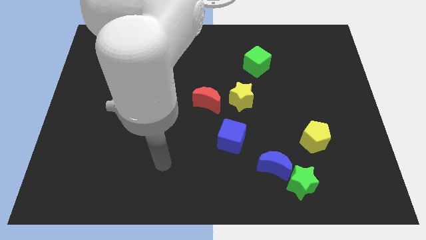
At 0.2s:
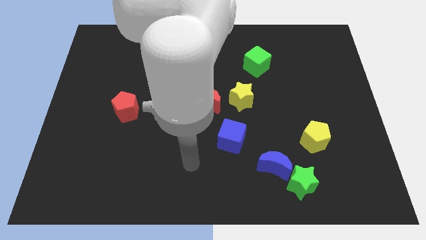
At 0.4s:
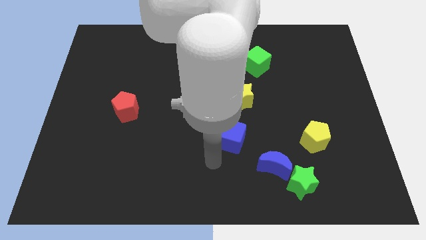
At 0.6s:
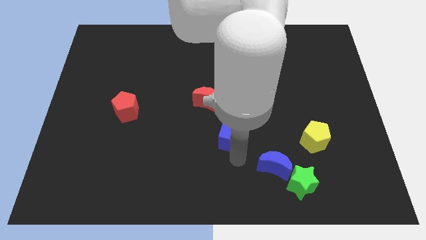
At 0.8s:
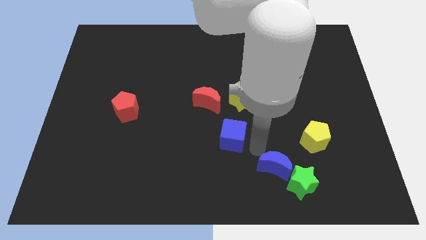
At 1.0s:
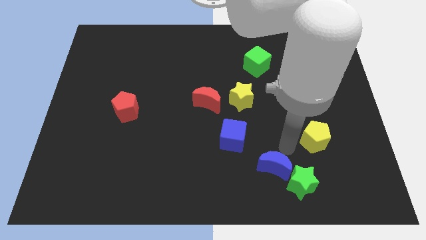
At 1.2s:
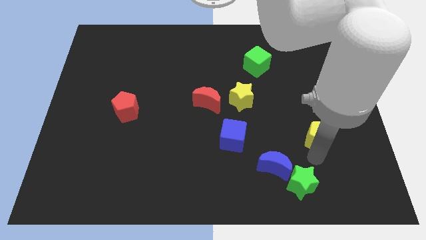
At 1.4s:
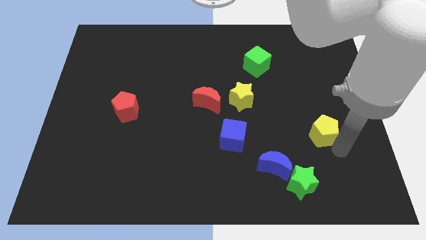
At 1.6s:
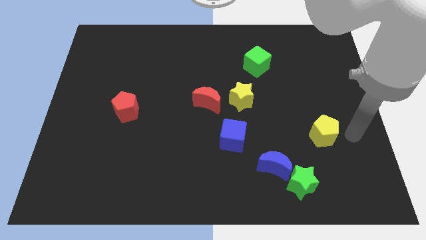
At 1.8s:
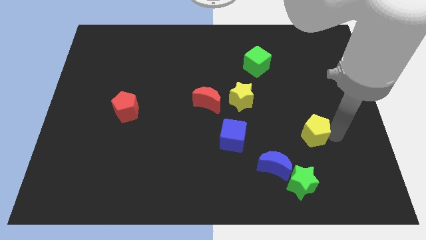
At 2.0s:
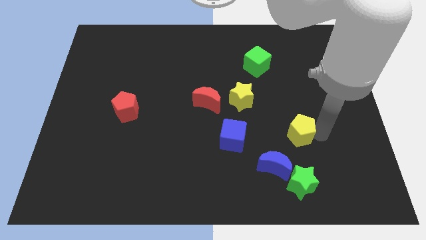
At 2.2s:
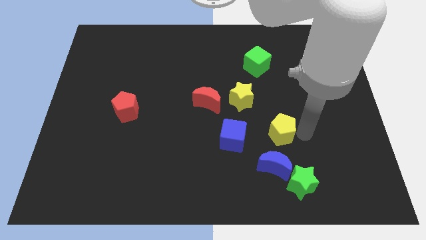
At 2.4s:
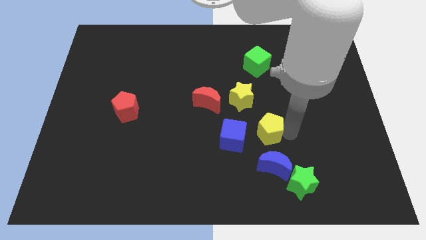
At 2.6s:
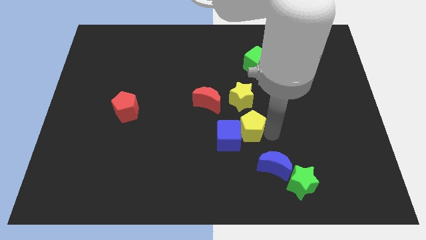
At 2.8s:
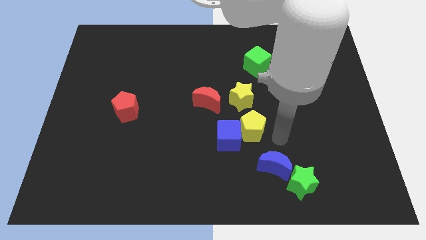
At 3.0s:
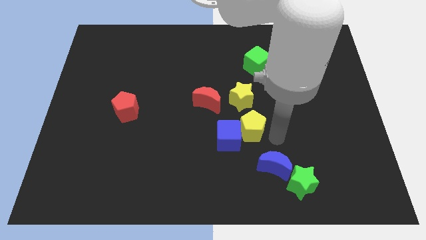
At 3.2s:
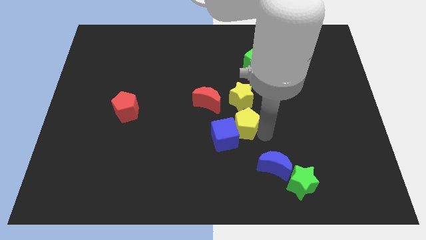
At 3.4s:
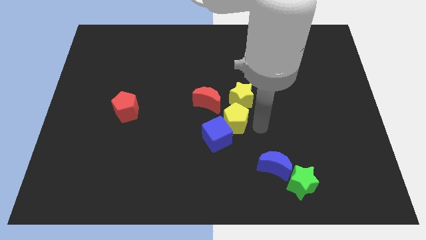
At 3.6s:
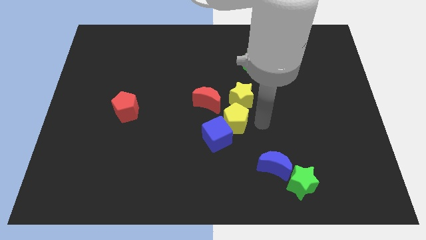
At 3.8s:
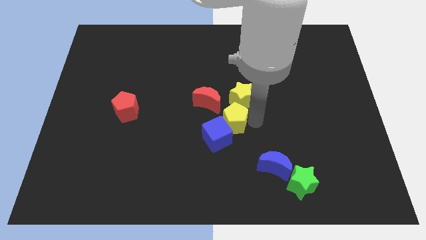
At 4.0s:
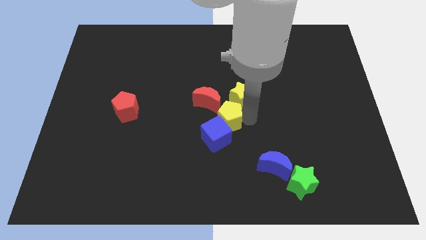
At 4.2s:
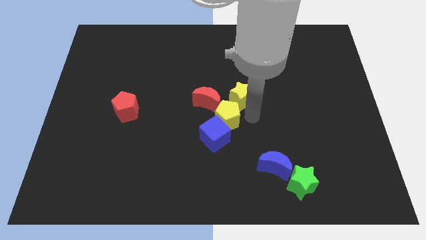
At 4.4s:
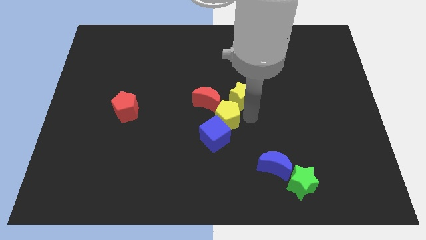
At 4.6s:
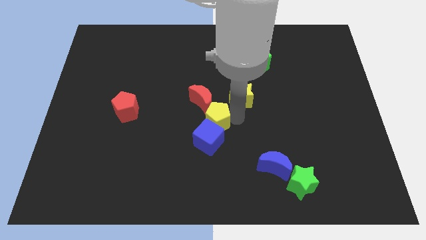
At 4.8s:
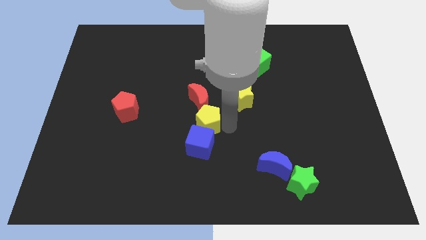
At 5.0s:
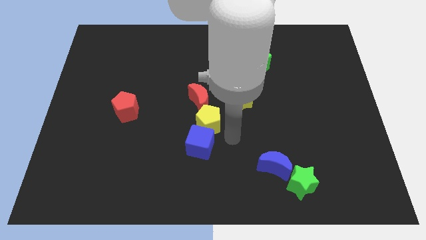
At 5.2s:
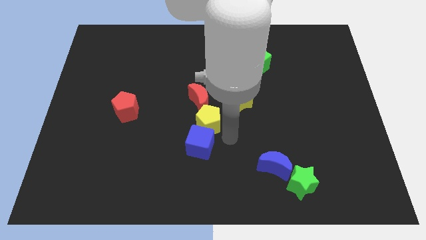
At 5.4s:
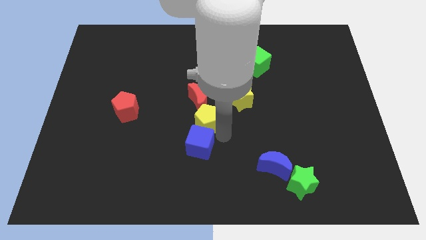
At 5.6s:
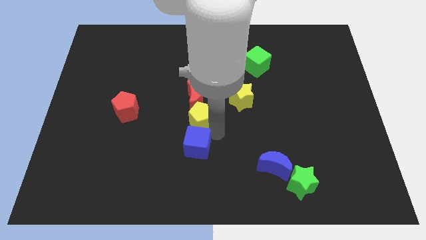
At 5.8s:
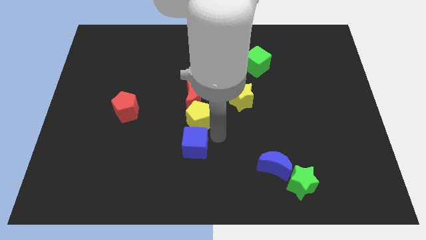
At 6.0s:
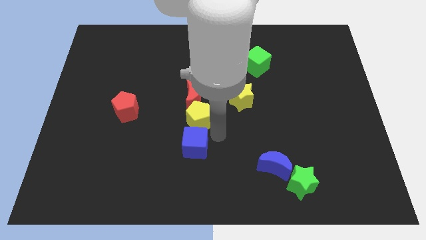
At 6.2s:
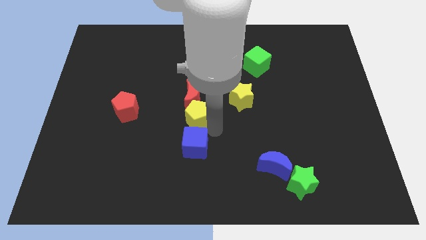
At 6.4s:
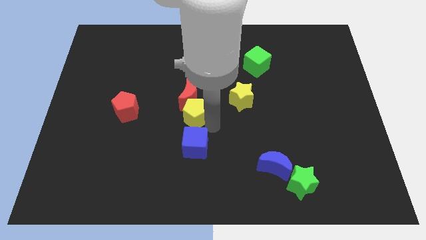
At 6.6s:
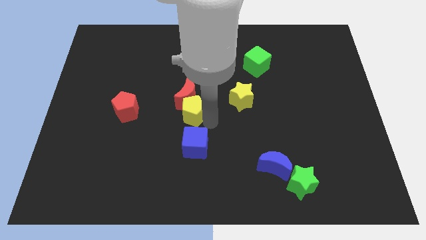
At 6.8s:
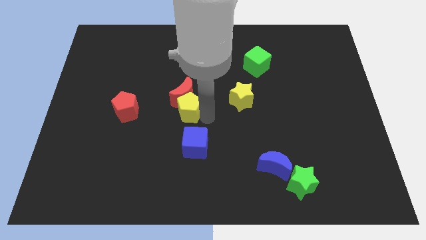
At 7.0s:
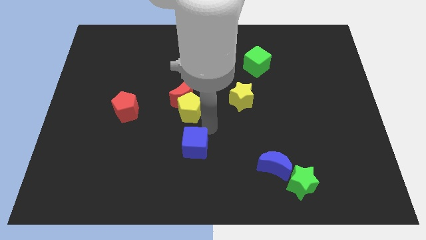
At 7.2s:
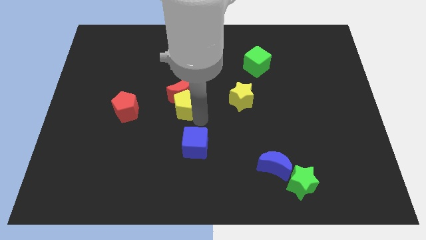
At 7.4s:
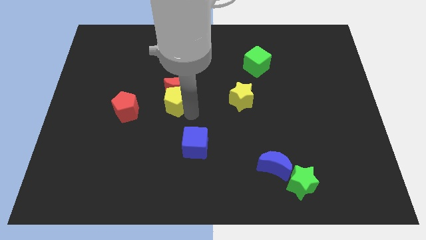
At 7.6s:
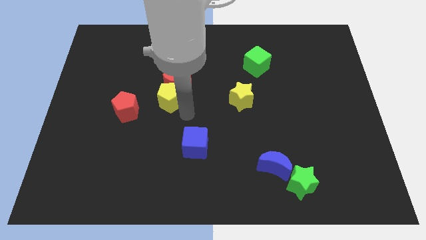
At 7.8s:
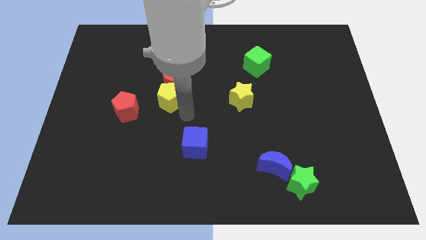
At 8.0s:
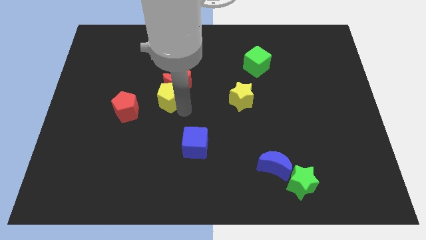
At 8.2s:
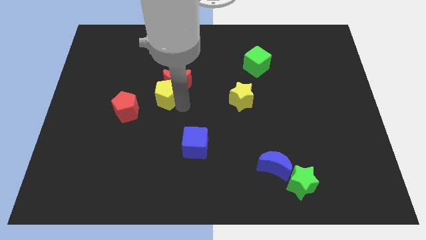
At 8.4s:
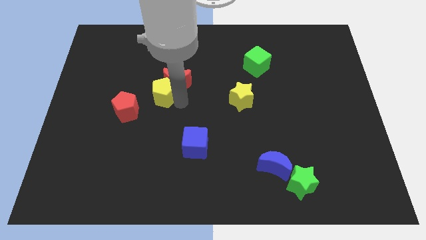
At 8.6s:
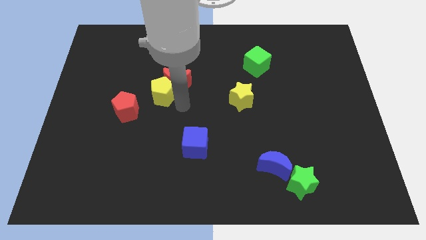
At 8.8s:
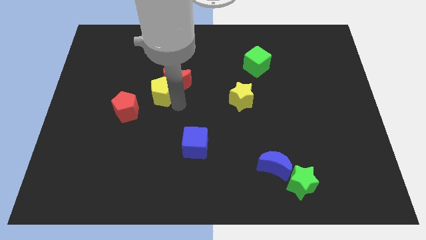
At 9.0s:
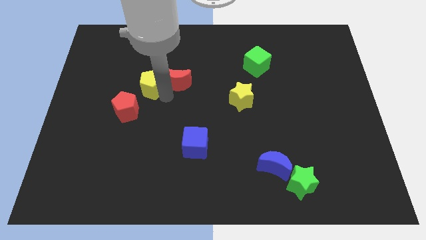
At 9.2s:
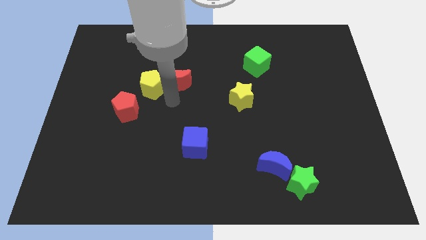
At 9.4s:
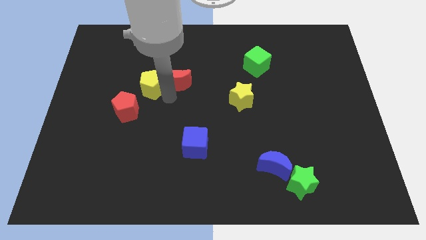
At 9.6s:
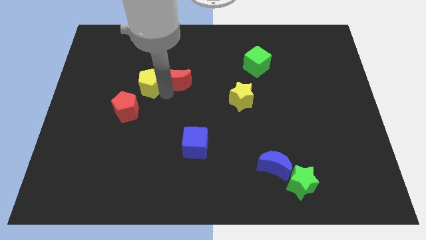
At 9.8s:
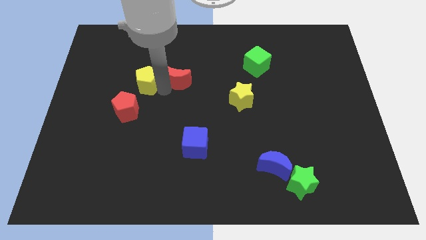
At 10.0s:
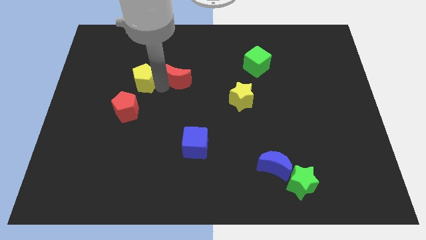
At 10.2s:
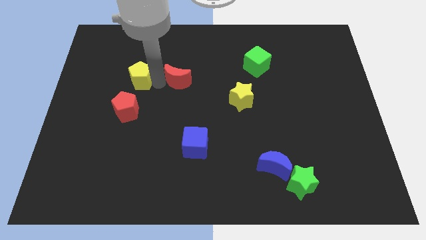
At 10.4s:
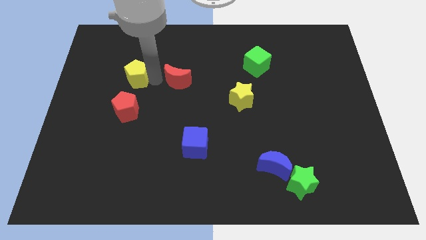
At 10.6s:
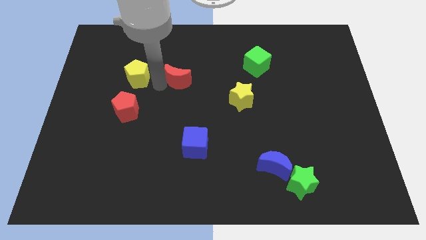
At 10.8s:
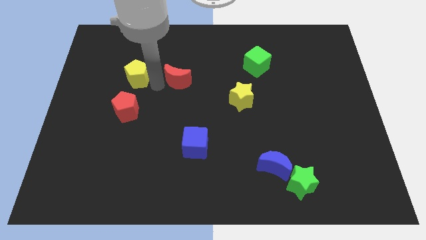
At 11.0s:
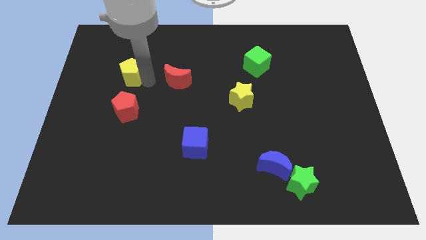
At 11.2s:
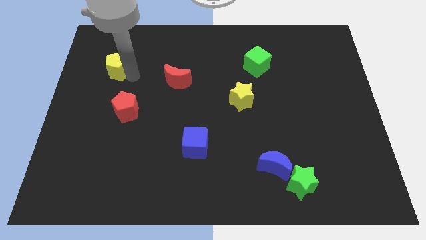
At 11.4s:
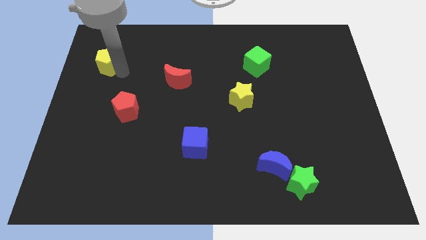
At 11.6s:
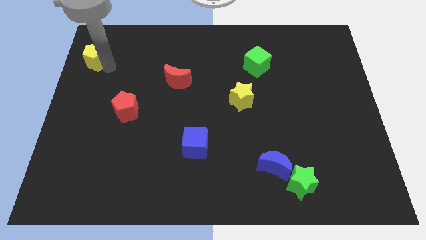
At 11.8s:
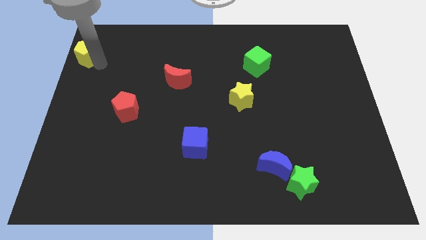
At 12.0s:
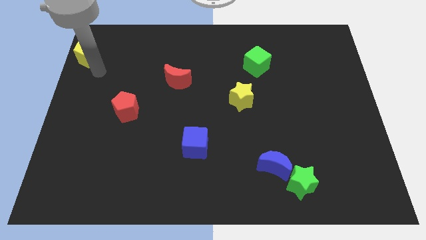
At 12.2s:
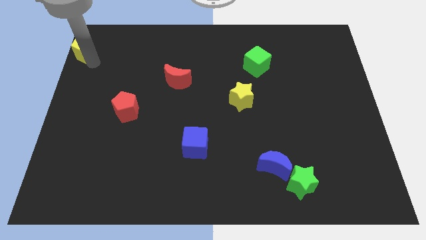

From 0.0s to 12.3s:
move the yellow pentagon to the top left of the board

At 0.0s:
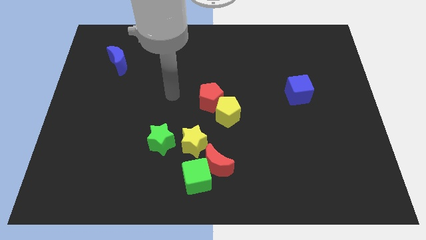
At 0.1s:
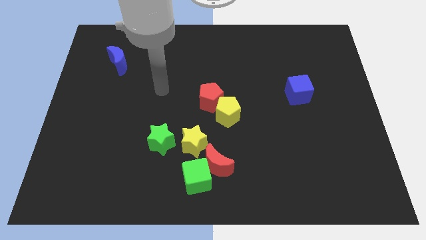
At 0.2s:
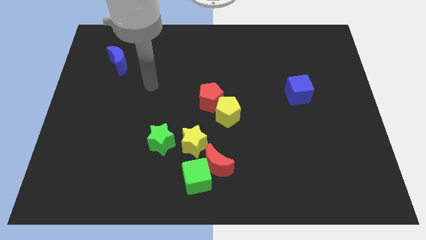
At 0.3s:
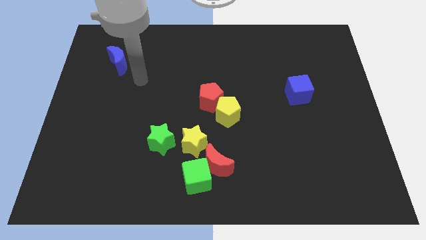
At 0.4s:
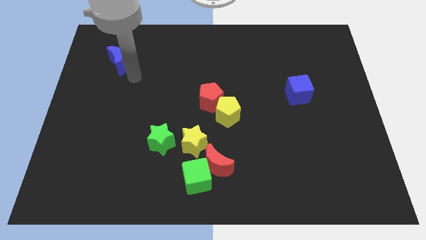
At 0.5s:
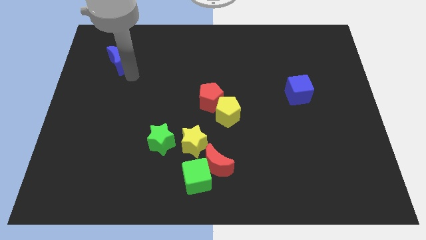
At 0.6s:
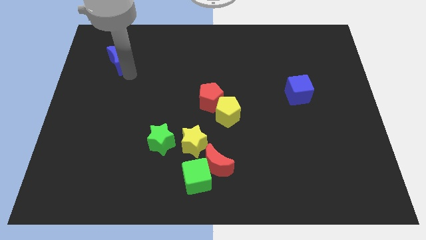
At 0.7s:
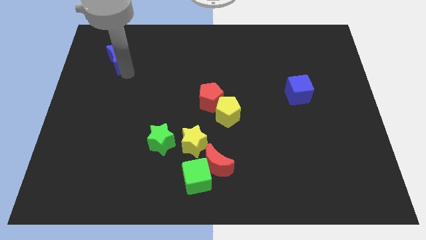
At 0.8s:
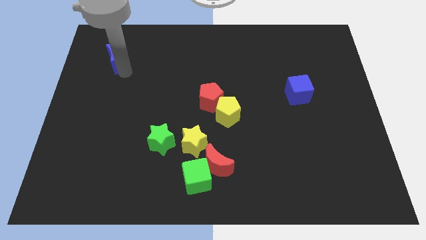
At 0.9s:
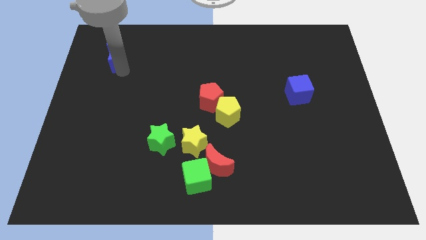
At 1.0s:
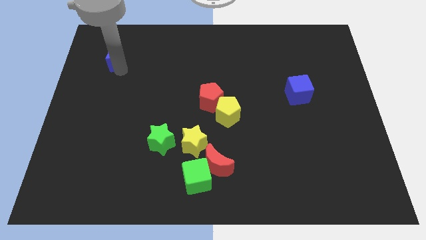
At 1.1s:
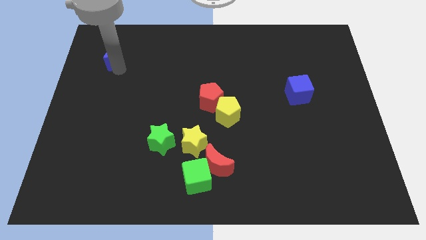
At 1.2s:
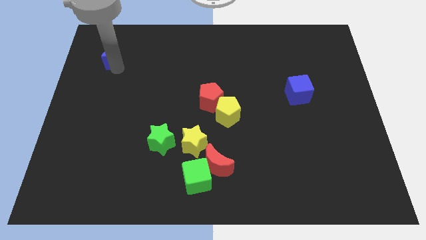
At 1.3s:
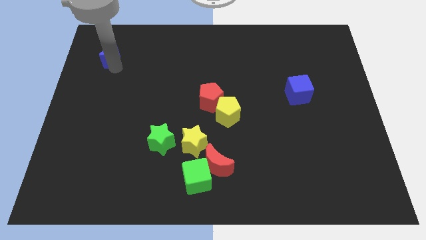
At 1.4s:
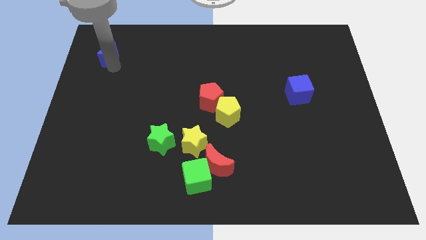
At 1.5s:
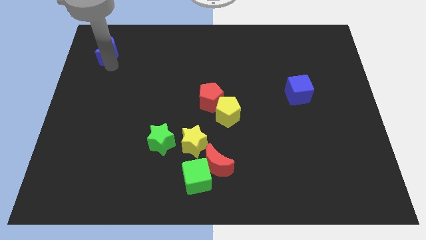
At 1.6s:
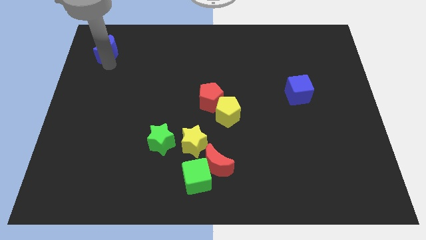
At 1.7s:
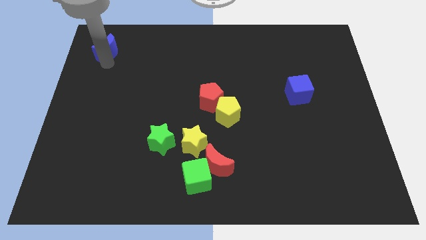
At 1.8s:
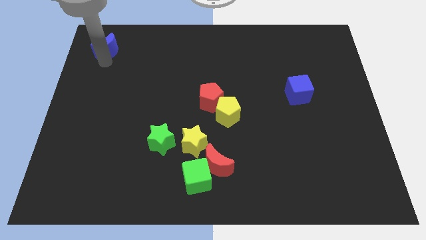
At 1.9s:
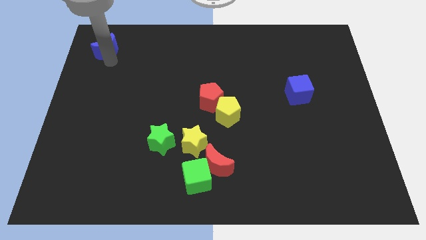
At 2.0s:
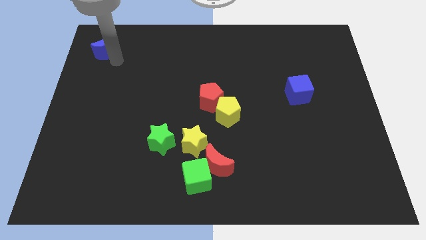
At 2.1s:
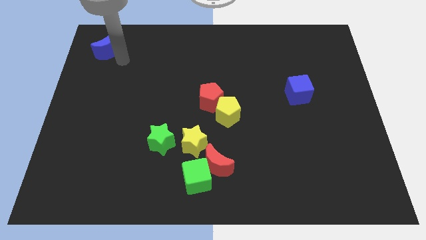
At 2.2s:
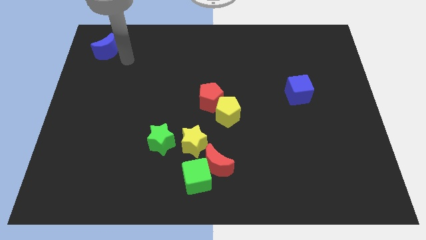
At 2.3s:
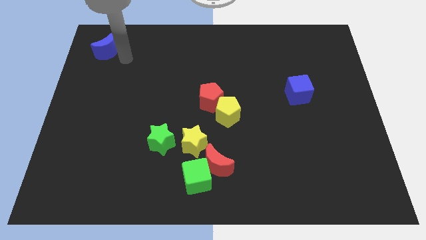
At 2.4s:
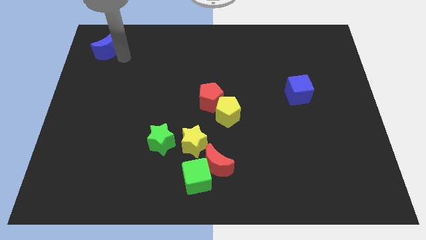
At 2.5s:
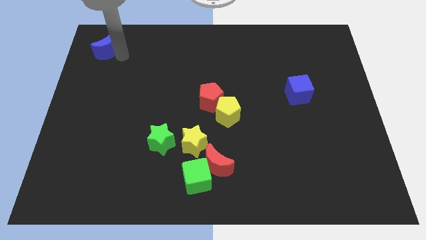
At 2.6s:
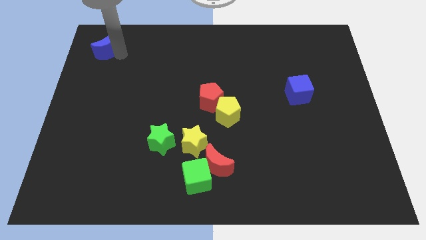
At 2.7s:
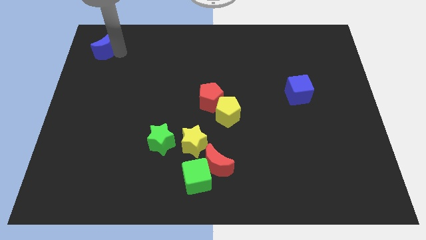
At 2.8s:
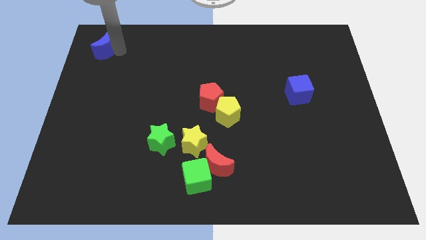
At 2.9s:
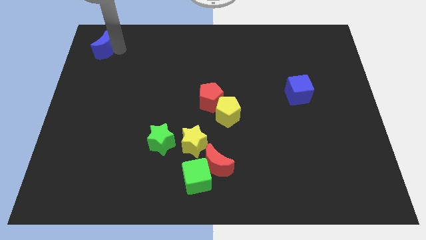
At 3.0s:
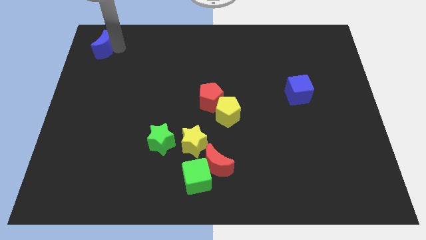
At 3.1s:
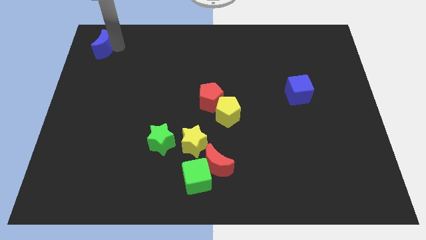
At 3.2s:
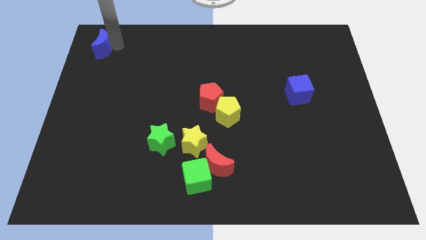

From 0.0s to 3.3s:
move the blue moon to the upper left corner
